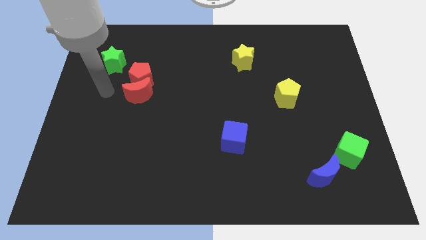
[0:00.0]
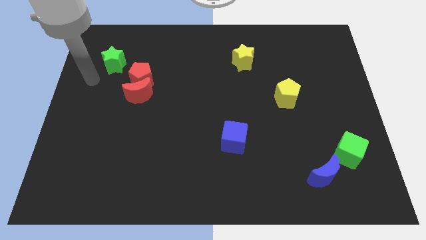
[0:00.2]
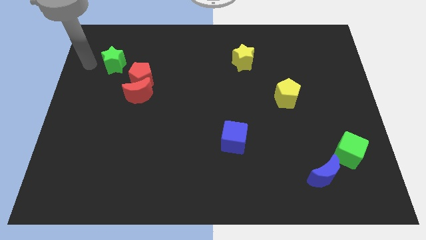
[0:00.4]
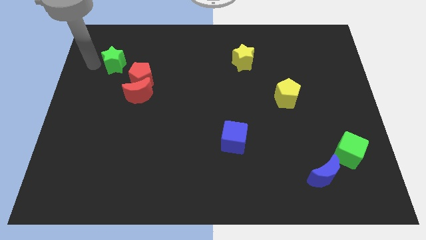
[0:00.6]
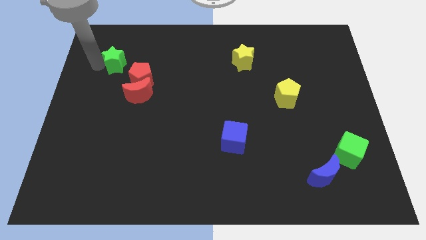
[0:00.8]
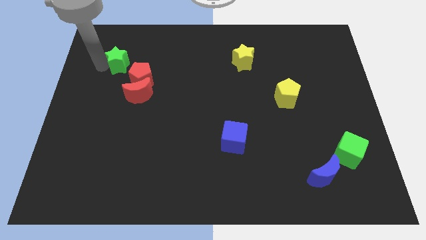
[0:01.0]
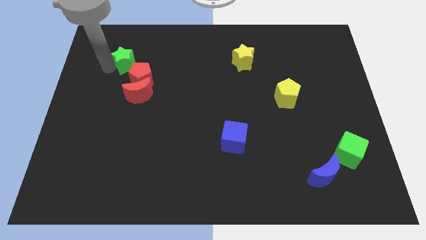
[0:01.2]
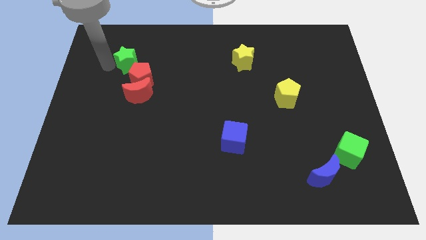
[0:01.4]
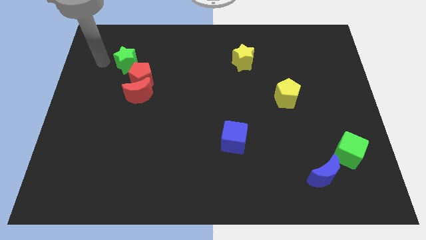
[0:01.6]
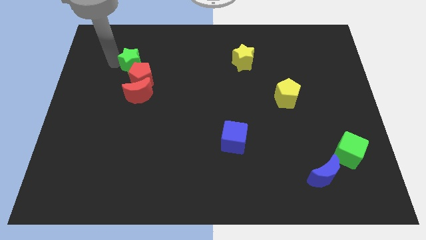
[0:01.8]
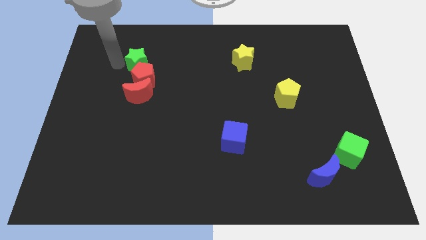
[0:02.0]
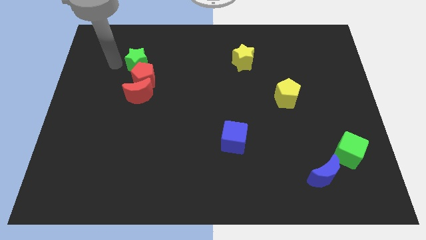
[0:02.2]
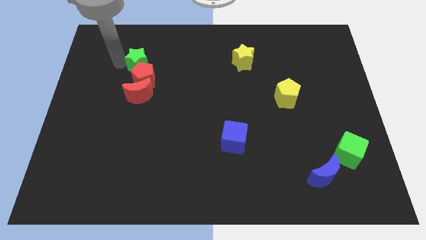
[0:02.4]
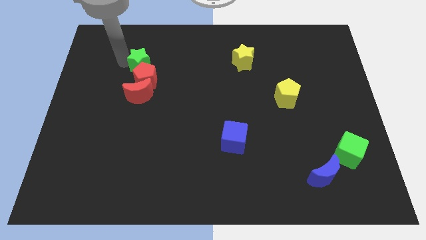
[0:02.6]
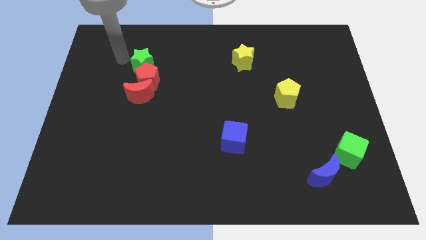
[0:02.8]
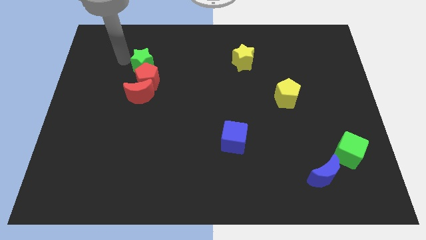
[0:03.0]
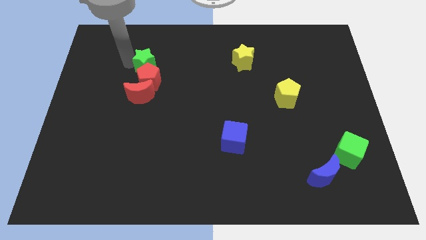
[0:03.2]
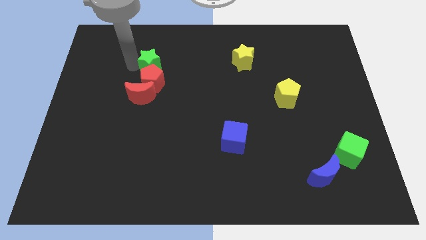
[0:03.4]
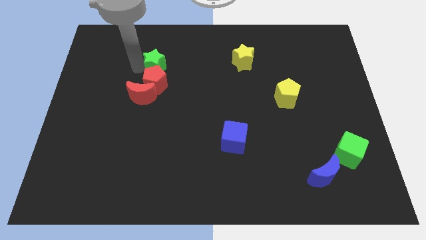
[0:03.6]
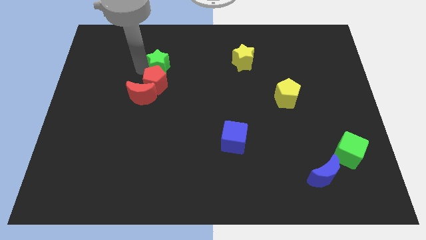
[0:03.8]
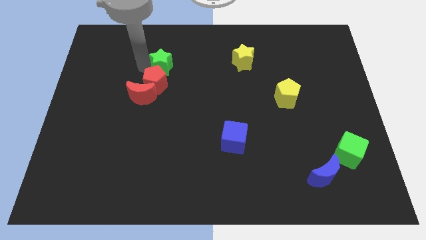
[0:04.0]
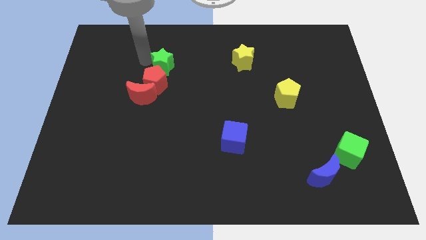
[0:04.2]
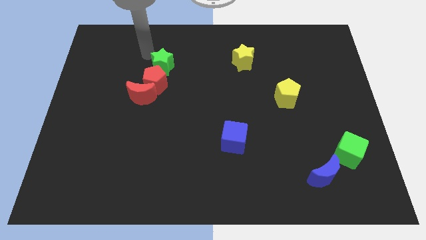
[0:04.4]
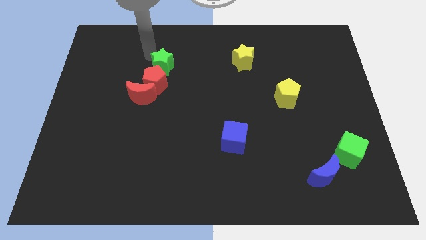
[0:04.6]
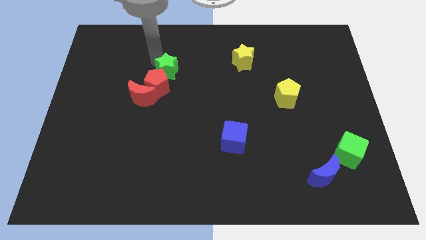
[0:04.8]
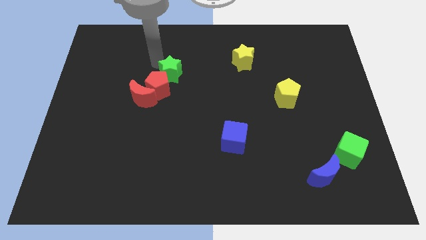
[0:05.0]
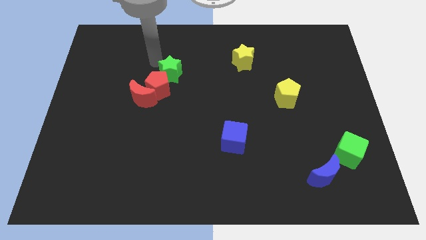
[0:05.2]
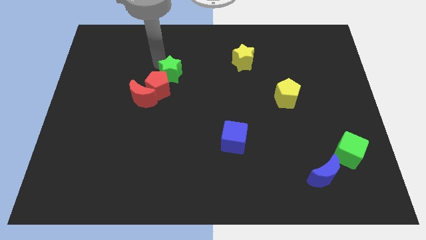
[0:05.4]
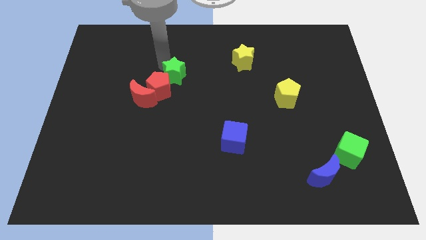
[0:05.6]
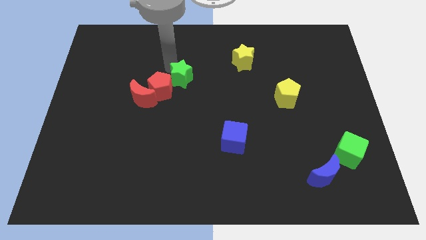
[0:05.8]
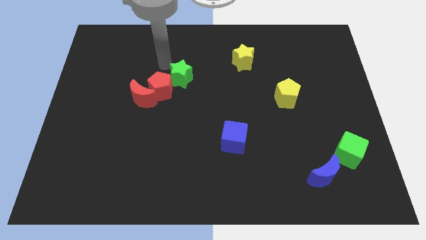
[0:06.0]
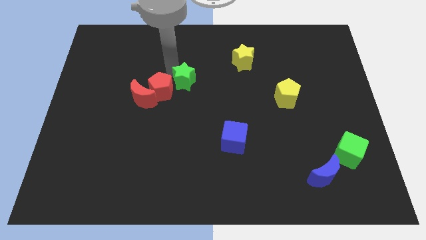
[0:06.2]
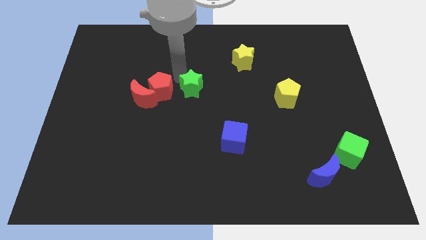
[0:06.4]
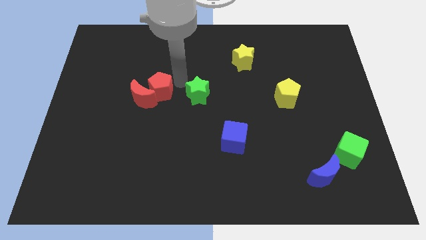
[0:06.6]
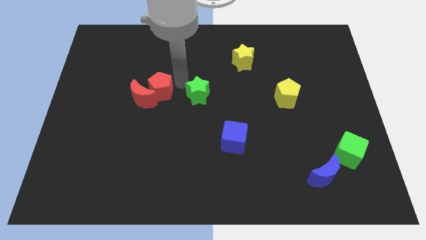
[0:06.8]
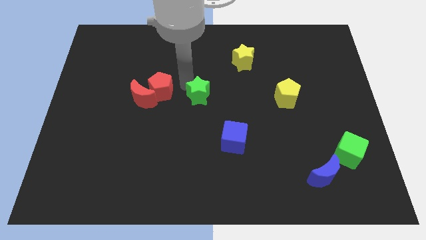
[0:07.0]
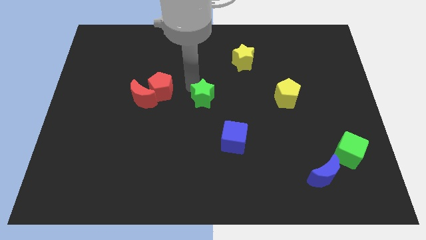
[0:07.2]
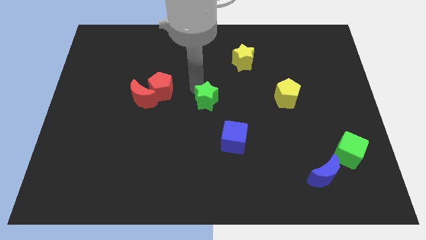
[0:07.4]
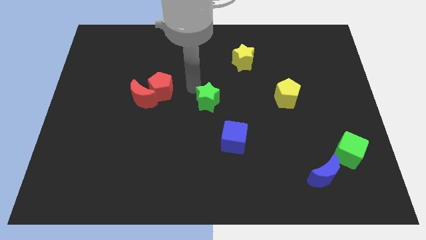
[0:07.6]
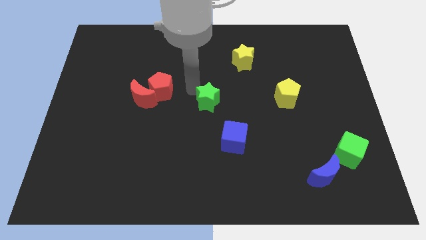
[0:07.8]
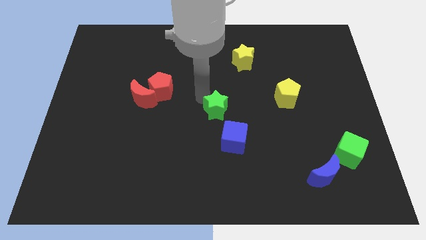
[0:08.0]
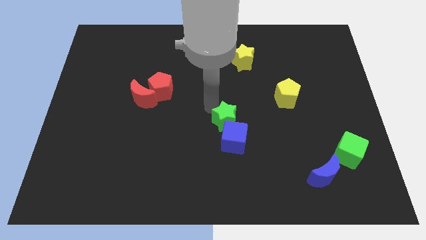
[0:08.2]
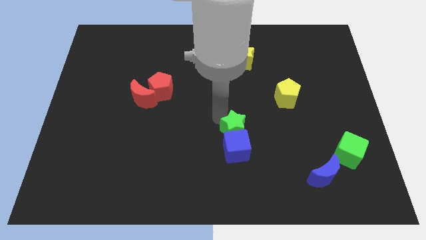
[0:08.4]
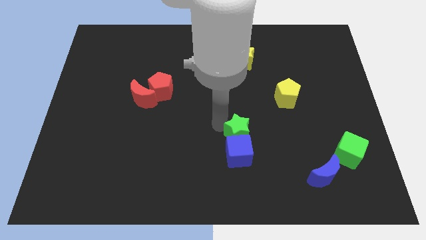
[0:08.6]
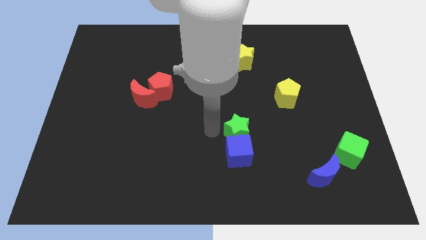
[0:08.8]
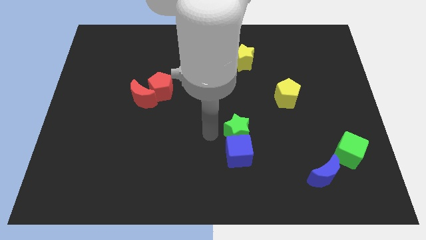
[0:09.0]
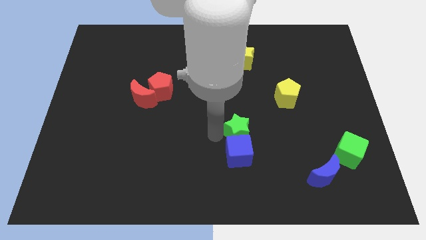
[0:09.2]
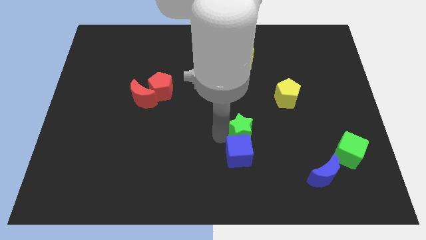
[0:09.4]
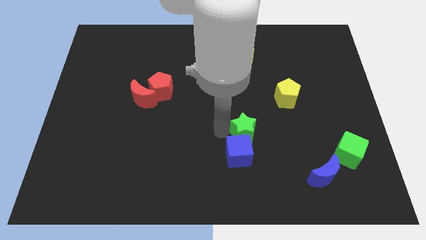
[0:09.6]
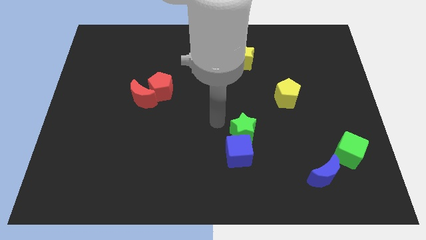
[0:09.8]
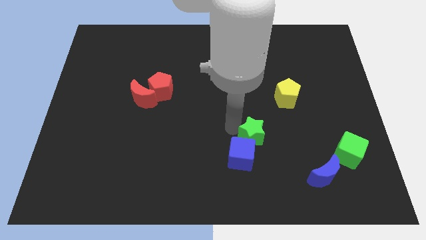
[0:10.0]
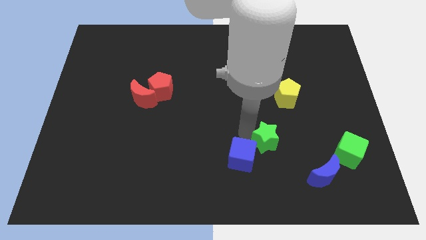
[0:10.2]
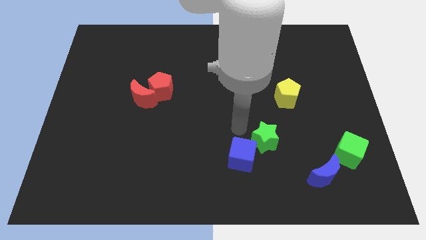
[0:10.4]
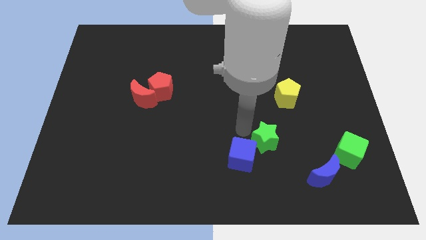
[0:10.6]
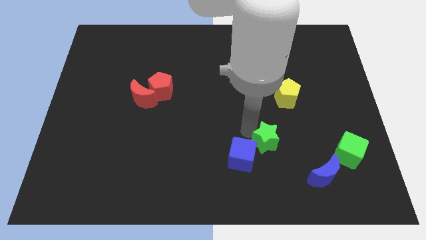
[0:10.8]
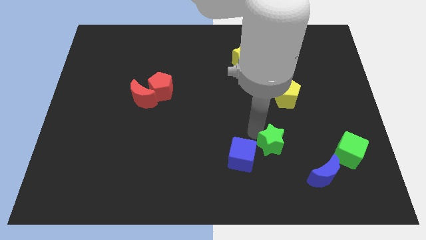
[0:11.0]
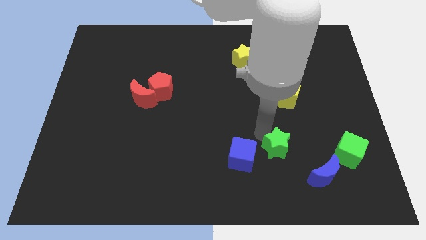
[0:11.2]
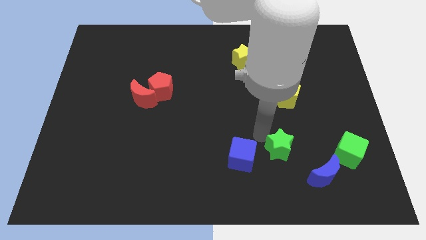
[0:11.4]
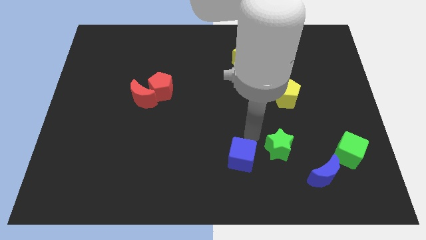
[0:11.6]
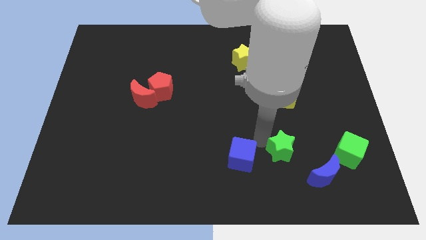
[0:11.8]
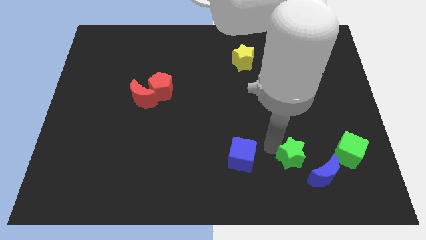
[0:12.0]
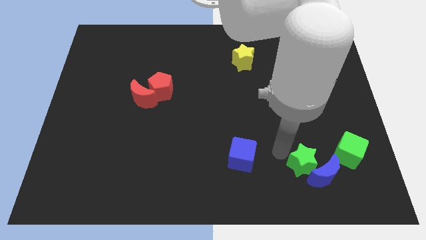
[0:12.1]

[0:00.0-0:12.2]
push the green star towards the blue moon

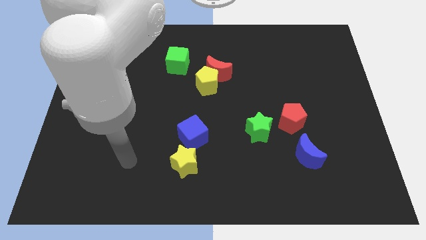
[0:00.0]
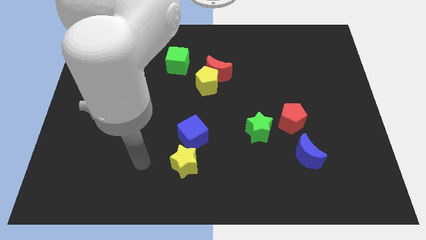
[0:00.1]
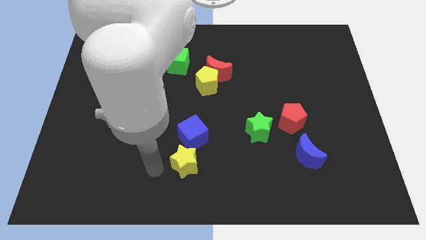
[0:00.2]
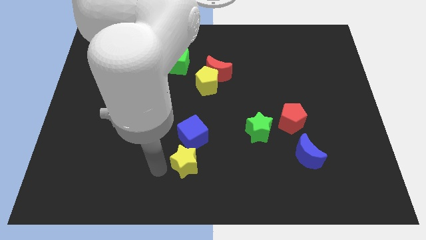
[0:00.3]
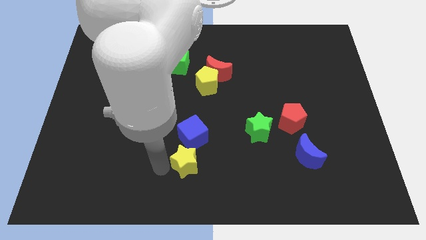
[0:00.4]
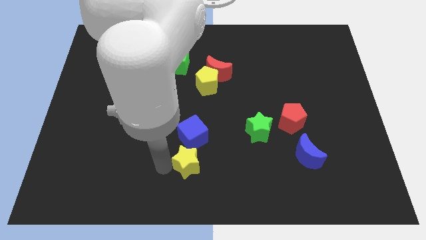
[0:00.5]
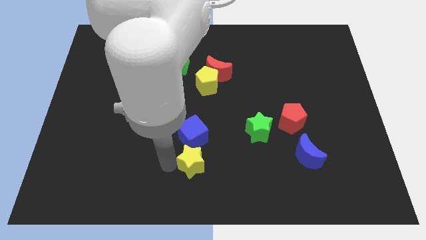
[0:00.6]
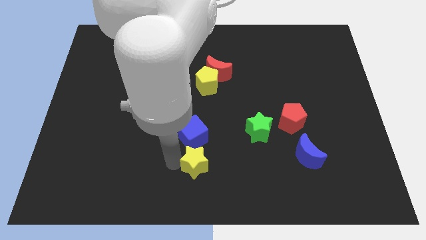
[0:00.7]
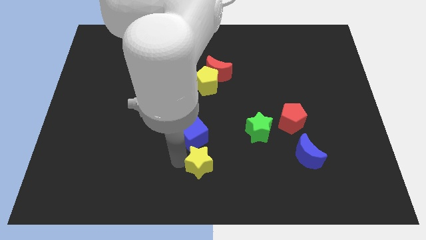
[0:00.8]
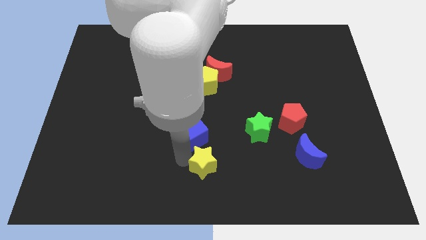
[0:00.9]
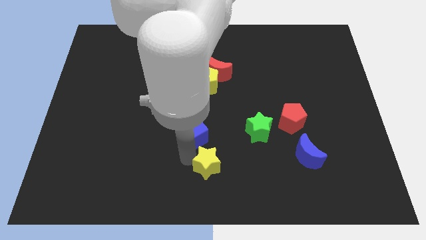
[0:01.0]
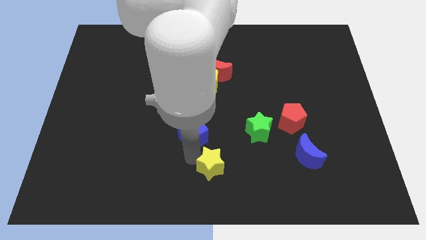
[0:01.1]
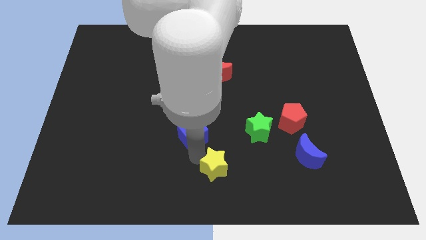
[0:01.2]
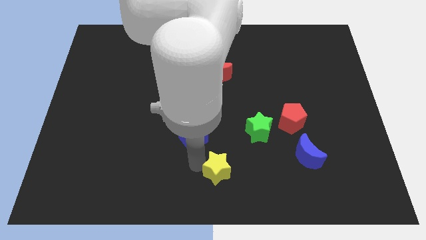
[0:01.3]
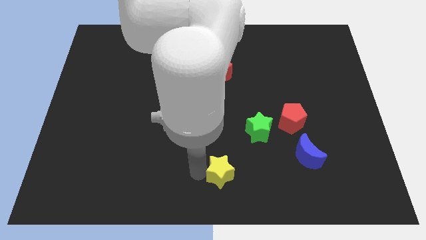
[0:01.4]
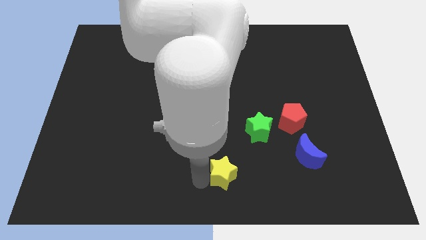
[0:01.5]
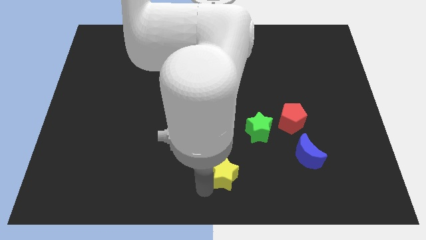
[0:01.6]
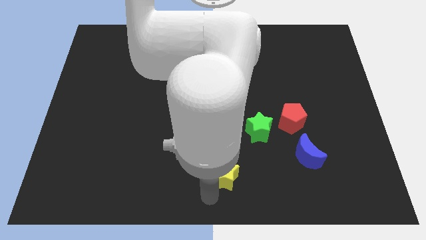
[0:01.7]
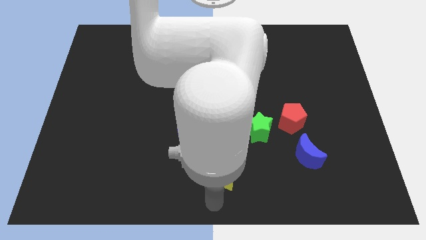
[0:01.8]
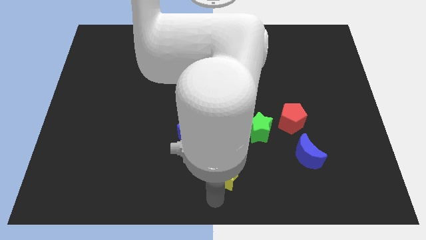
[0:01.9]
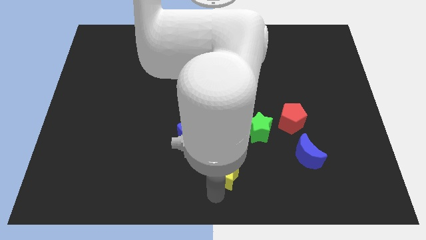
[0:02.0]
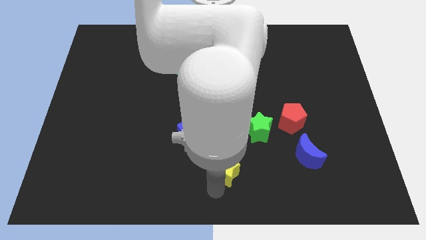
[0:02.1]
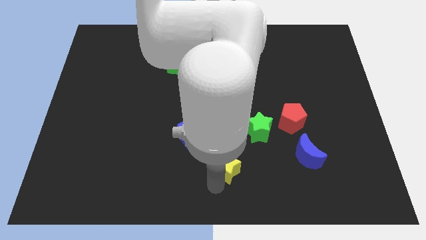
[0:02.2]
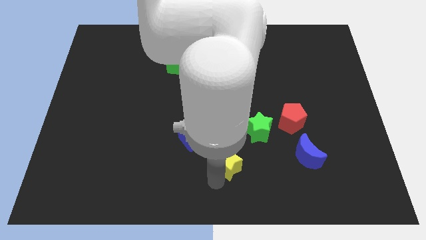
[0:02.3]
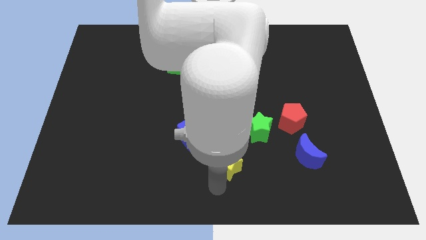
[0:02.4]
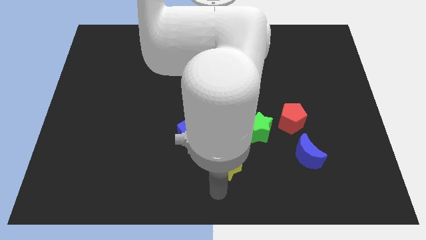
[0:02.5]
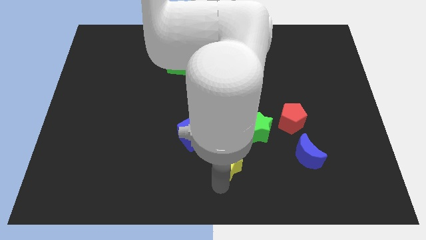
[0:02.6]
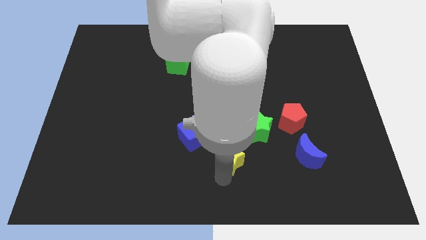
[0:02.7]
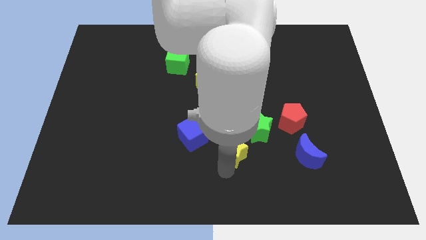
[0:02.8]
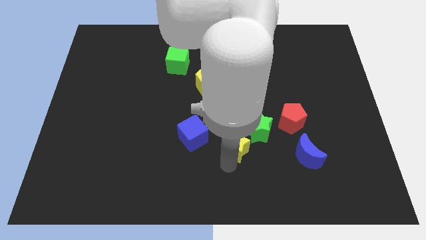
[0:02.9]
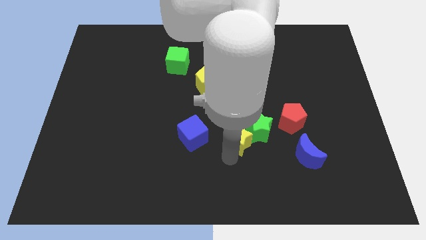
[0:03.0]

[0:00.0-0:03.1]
push the yellow star to the green star
